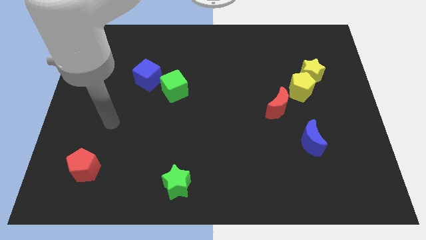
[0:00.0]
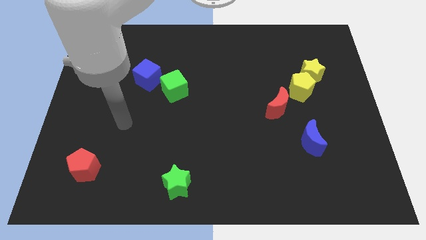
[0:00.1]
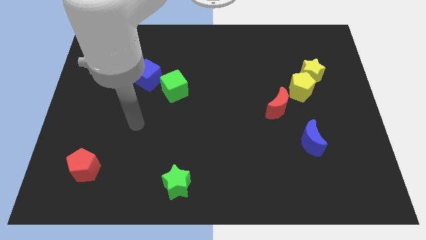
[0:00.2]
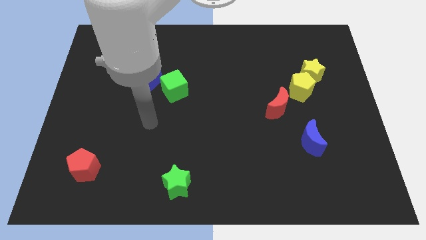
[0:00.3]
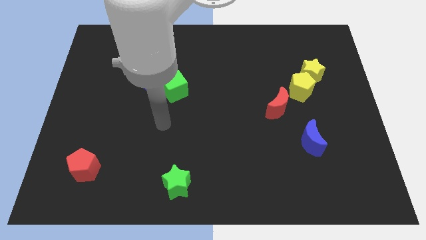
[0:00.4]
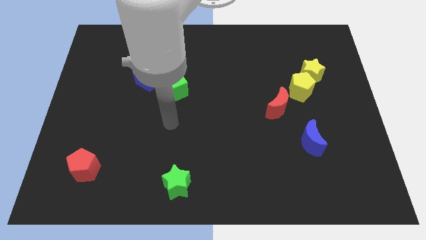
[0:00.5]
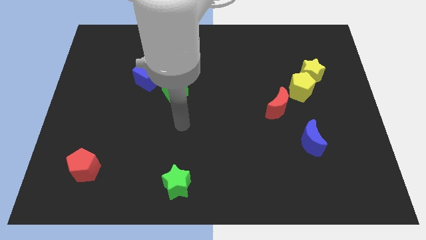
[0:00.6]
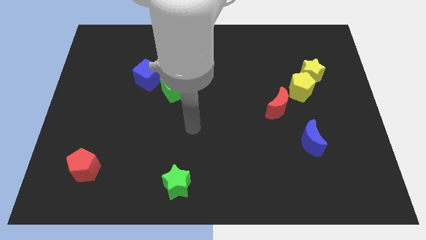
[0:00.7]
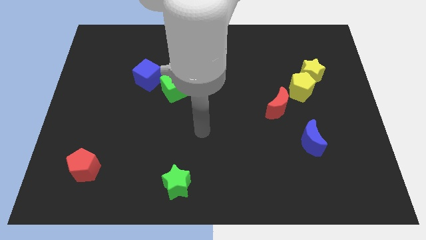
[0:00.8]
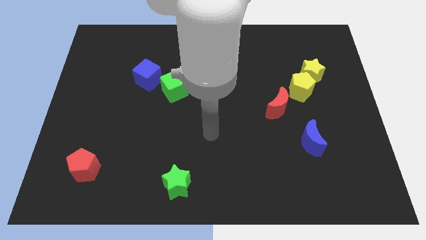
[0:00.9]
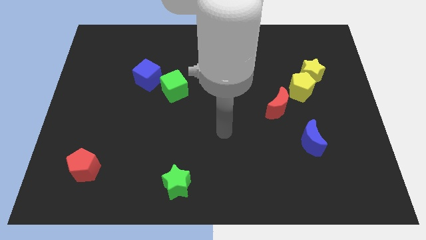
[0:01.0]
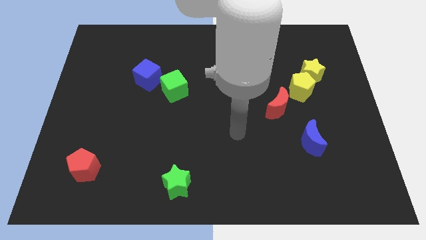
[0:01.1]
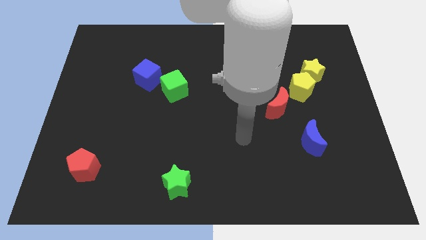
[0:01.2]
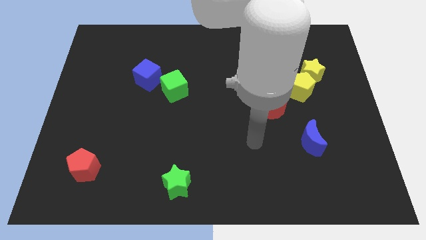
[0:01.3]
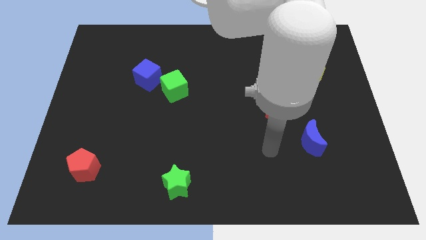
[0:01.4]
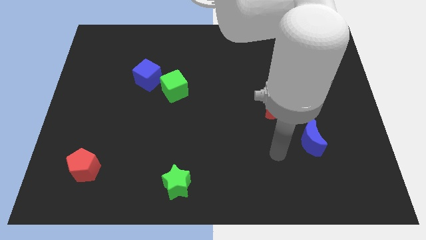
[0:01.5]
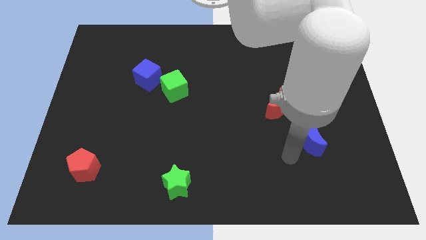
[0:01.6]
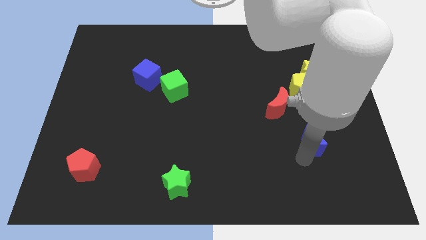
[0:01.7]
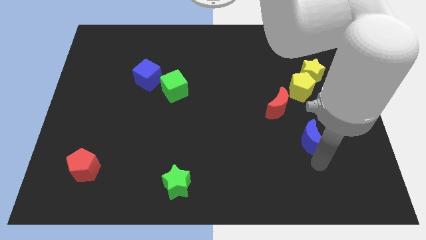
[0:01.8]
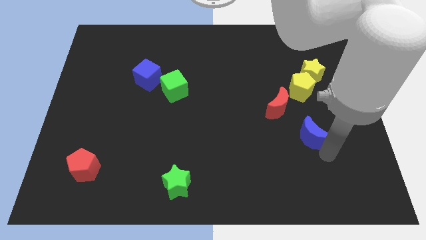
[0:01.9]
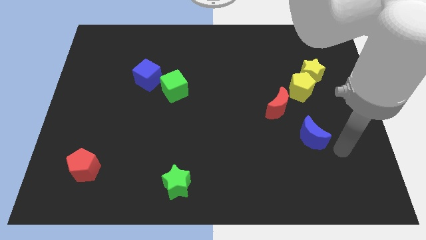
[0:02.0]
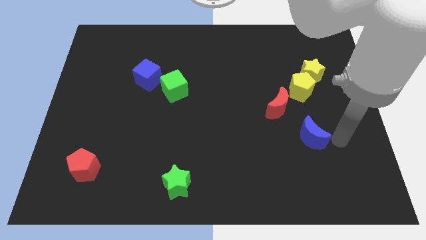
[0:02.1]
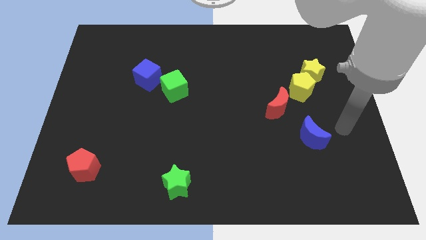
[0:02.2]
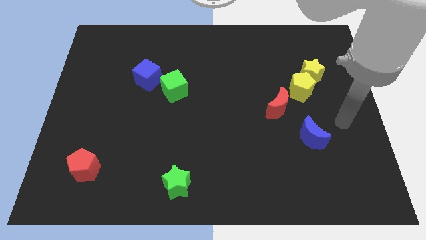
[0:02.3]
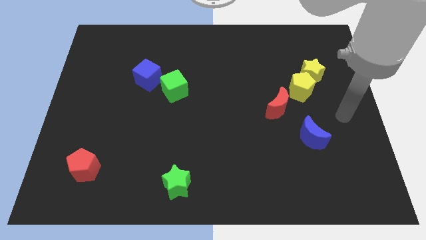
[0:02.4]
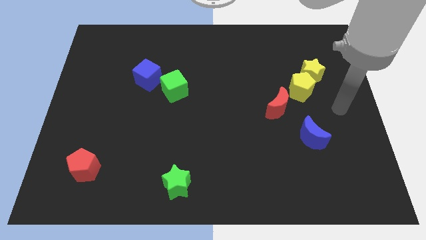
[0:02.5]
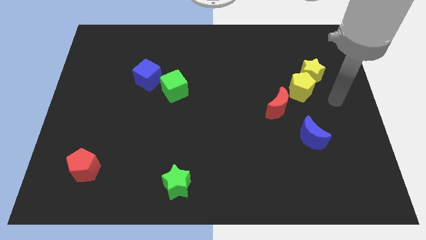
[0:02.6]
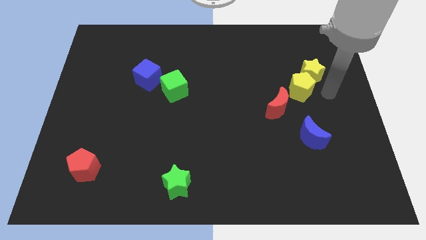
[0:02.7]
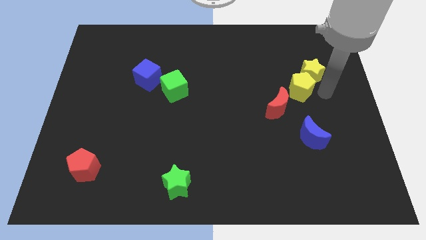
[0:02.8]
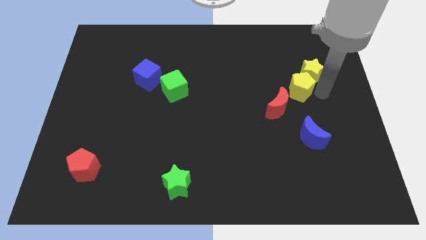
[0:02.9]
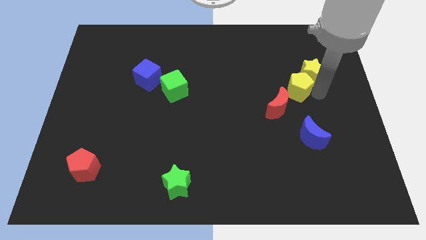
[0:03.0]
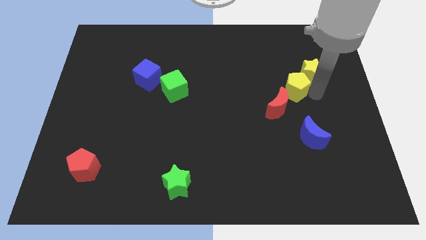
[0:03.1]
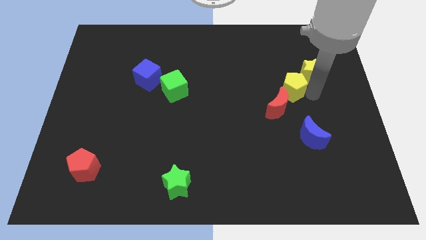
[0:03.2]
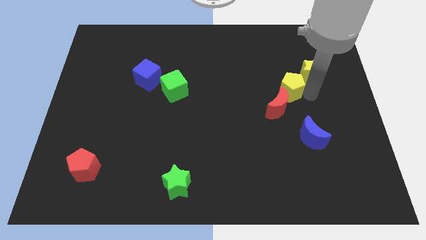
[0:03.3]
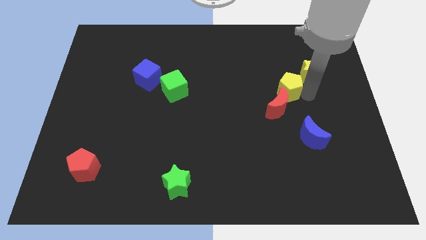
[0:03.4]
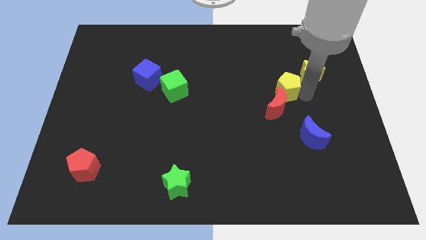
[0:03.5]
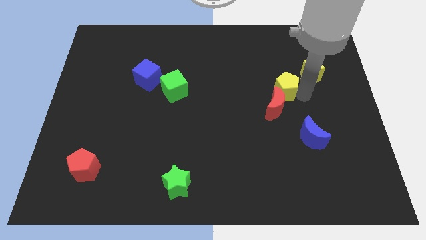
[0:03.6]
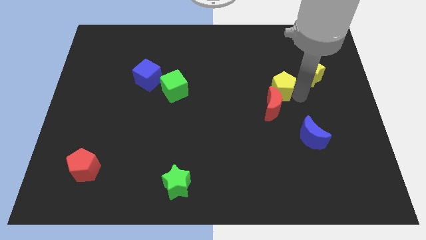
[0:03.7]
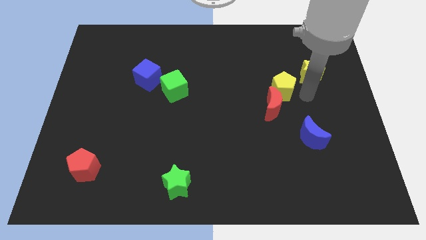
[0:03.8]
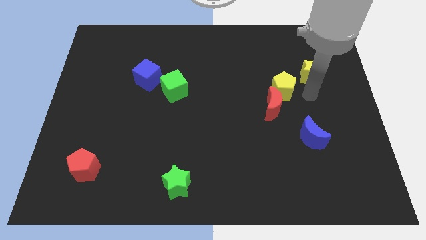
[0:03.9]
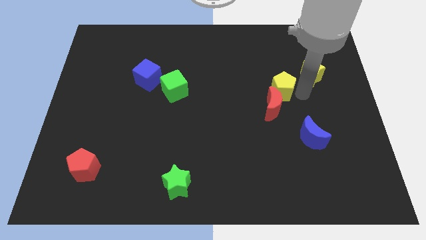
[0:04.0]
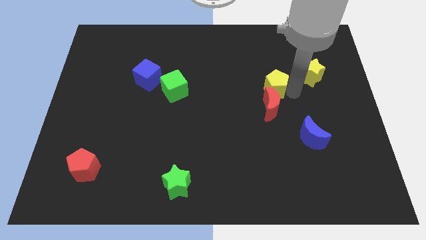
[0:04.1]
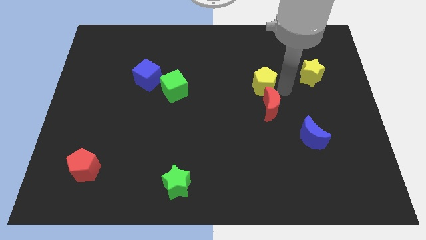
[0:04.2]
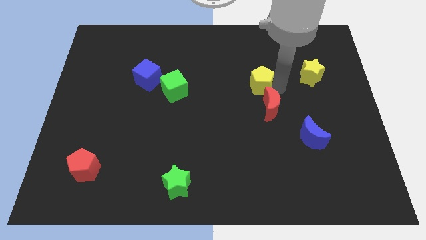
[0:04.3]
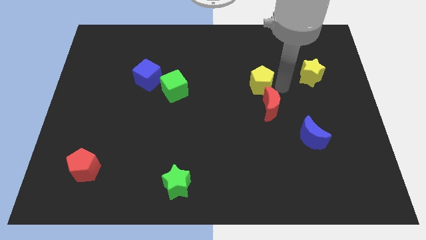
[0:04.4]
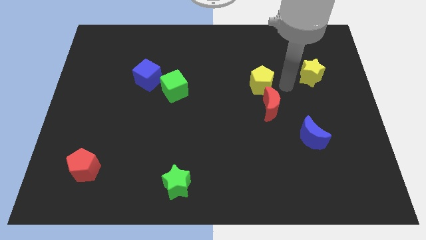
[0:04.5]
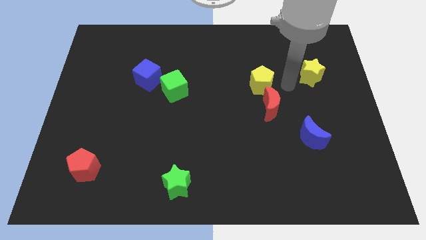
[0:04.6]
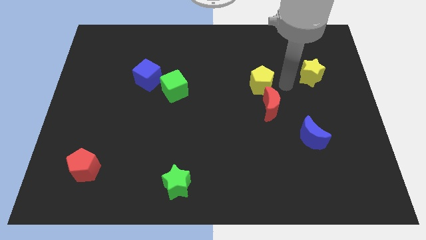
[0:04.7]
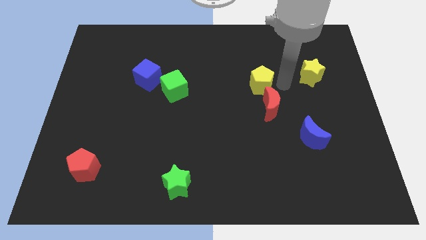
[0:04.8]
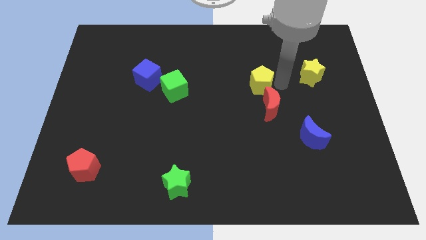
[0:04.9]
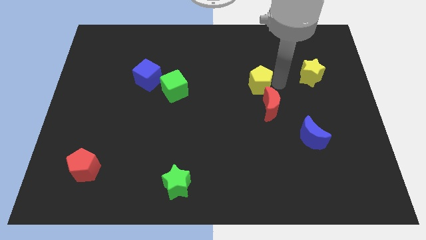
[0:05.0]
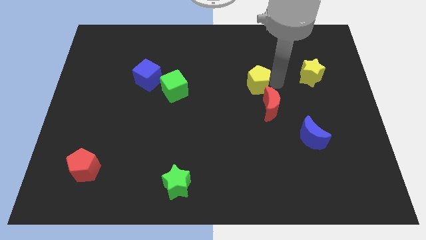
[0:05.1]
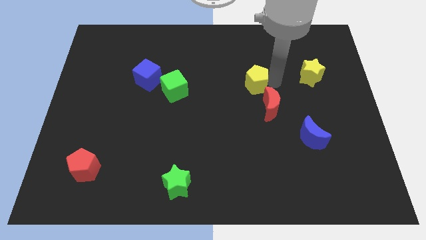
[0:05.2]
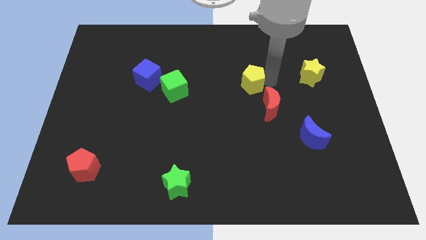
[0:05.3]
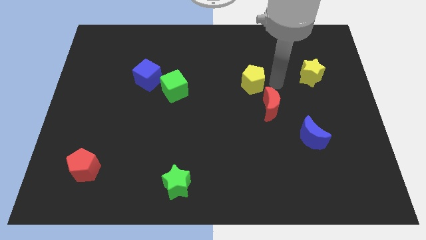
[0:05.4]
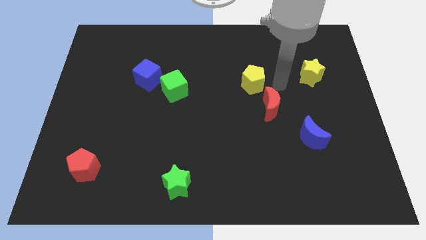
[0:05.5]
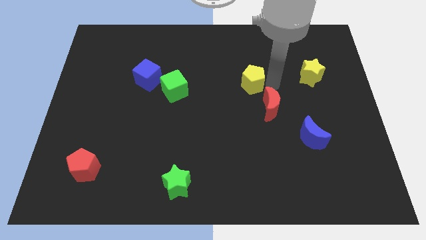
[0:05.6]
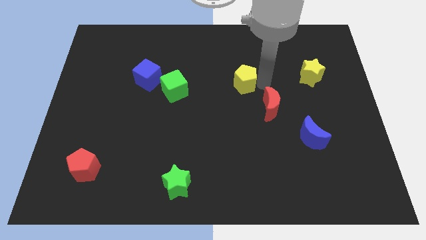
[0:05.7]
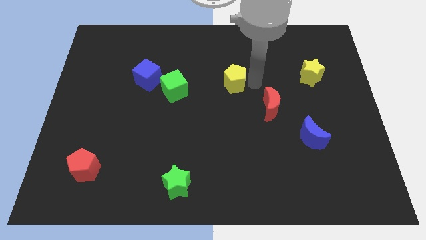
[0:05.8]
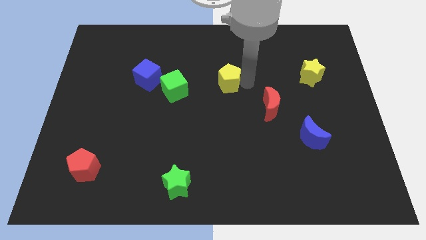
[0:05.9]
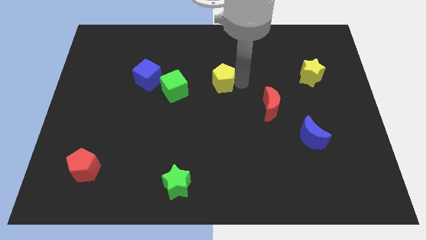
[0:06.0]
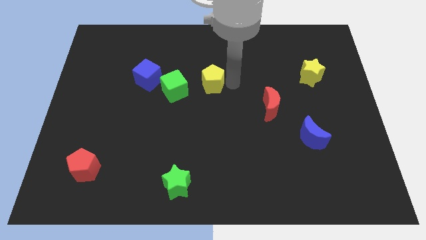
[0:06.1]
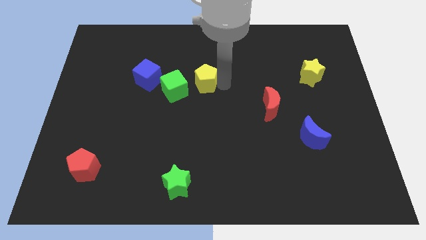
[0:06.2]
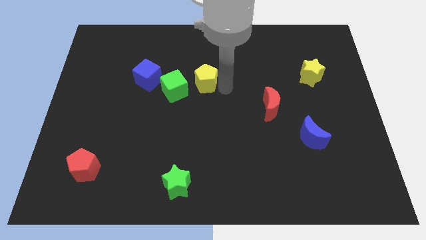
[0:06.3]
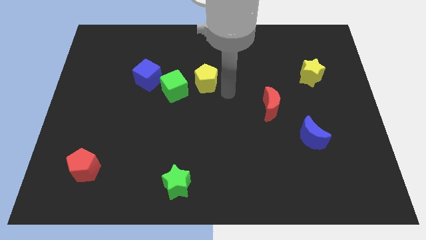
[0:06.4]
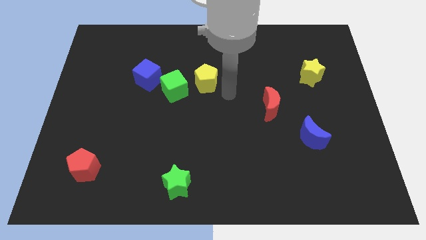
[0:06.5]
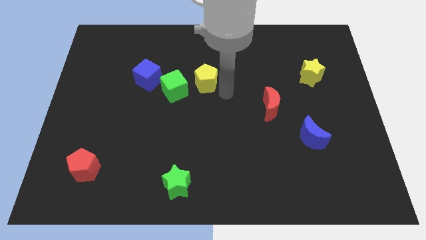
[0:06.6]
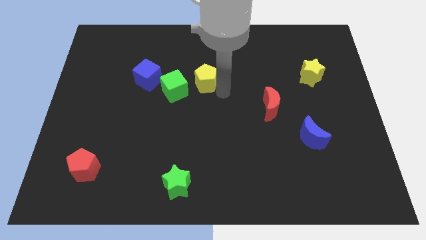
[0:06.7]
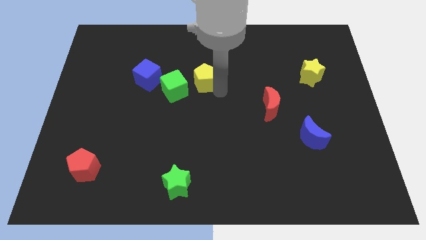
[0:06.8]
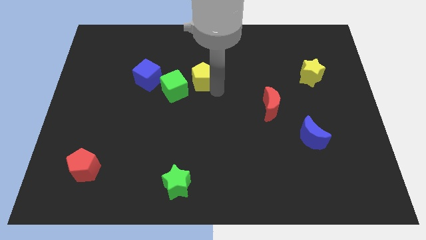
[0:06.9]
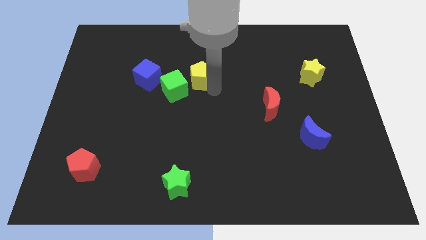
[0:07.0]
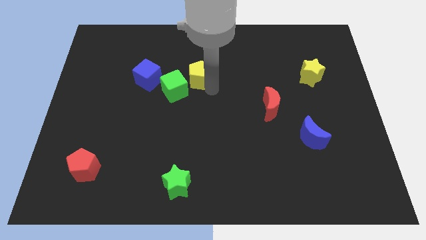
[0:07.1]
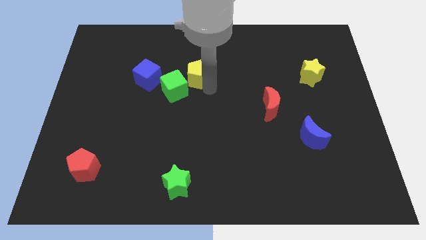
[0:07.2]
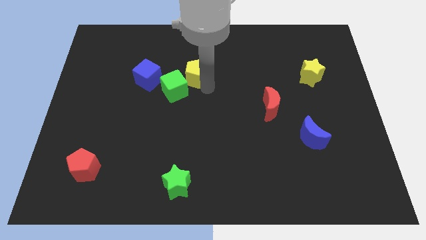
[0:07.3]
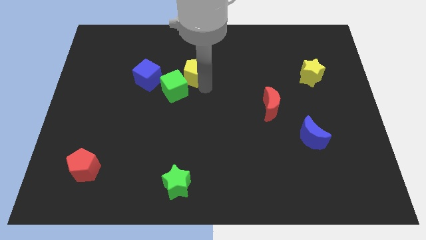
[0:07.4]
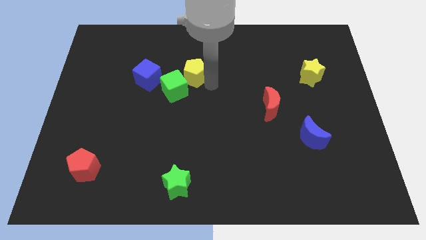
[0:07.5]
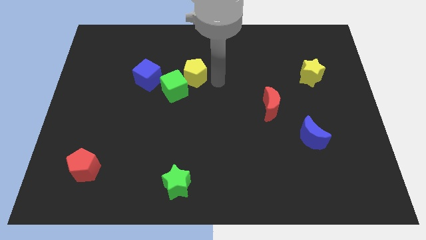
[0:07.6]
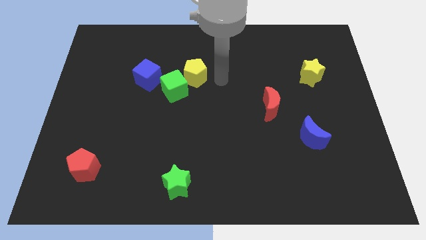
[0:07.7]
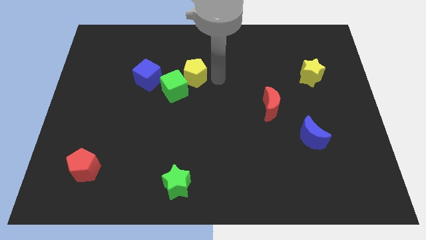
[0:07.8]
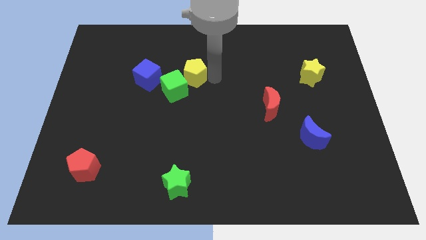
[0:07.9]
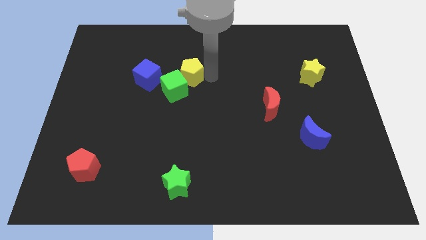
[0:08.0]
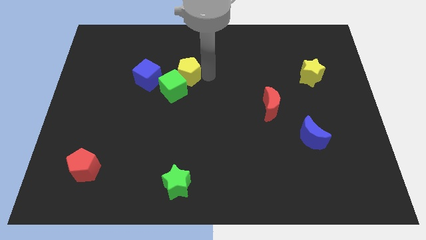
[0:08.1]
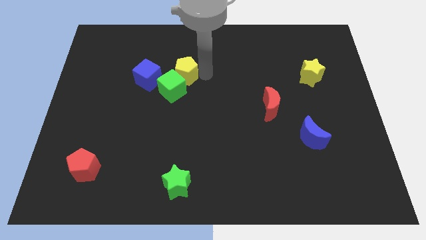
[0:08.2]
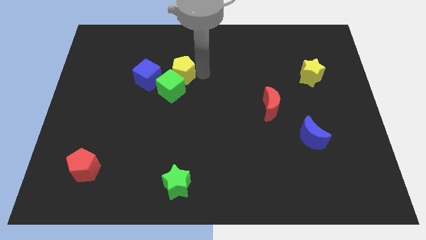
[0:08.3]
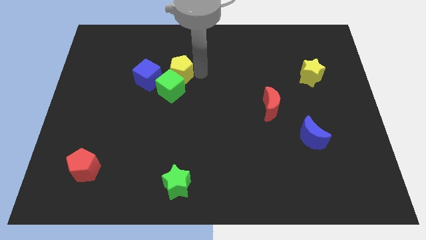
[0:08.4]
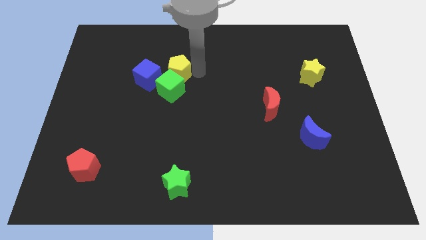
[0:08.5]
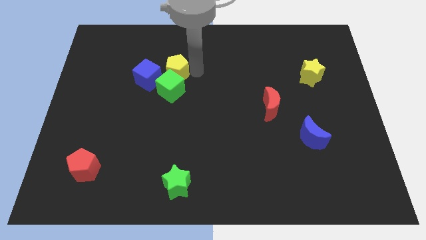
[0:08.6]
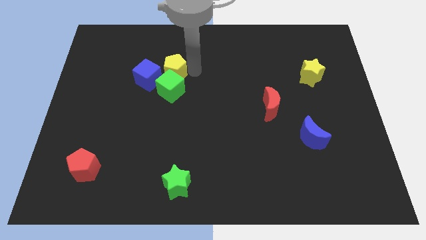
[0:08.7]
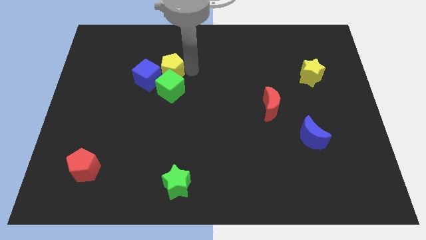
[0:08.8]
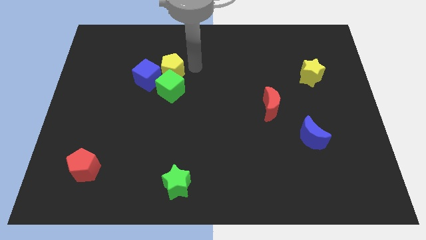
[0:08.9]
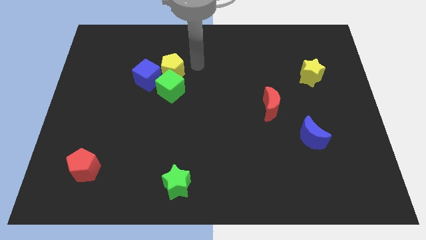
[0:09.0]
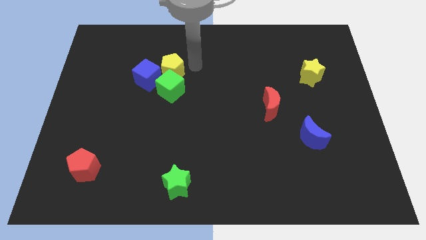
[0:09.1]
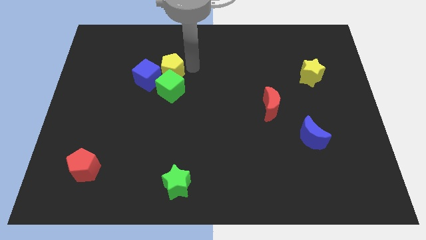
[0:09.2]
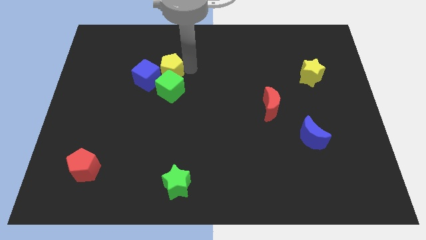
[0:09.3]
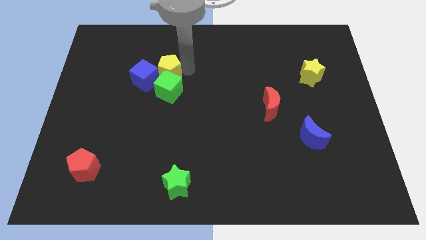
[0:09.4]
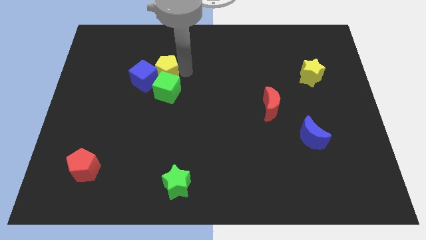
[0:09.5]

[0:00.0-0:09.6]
slide the yellow pentagon next to the blue cube
